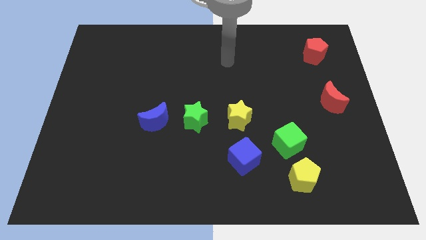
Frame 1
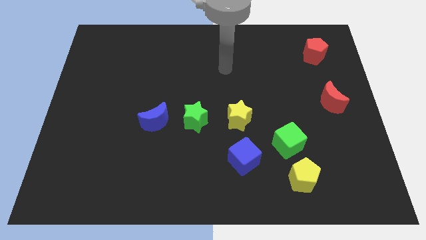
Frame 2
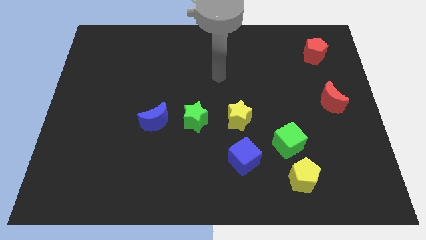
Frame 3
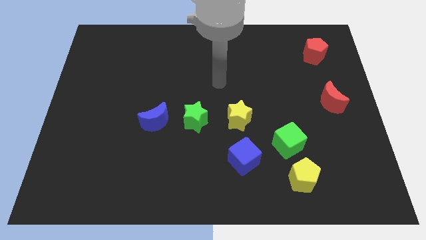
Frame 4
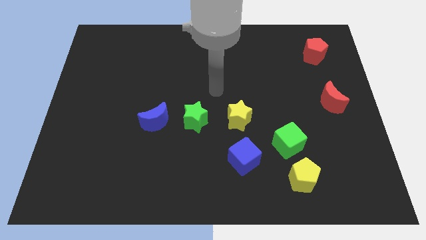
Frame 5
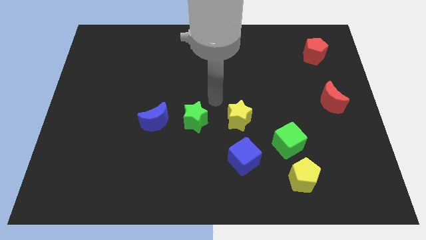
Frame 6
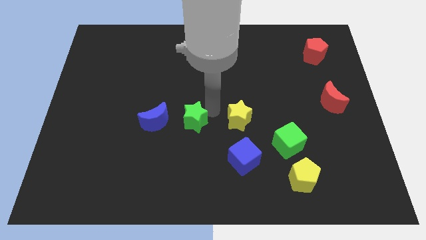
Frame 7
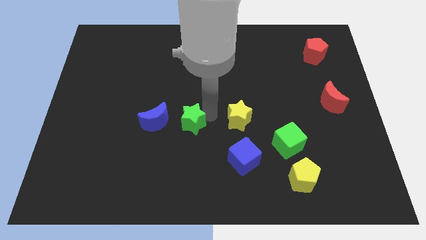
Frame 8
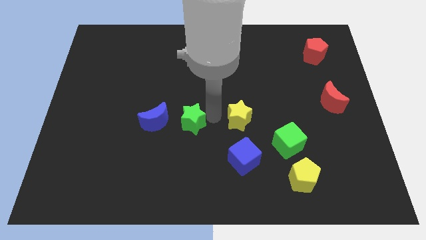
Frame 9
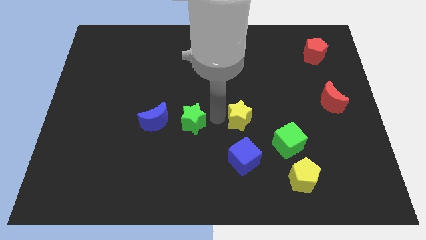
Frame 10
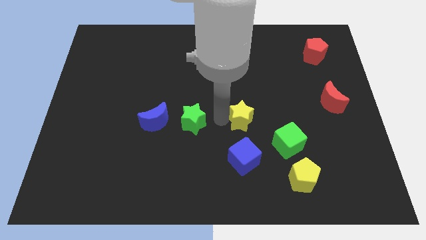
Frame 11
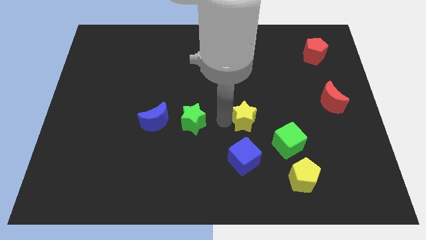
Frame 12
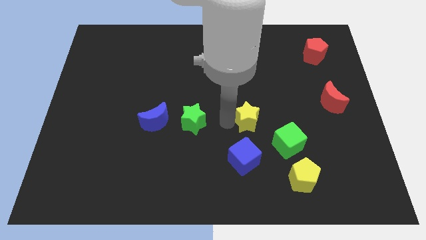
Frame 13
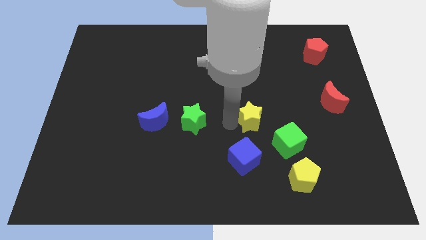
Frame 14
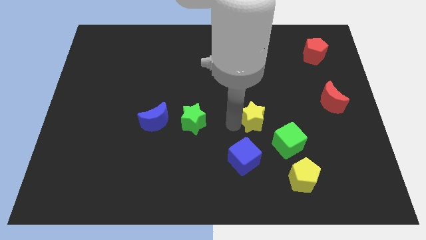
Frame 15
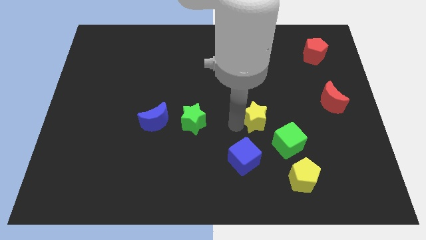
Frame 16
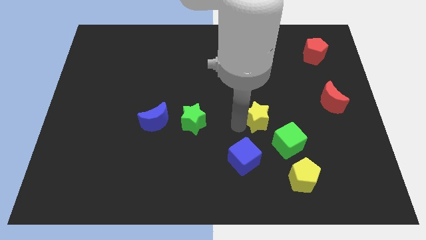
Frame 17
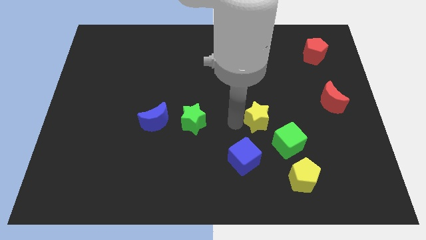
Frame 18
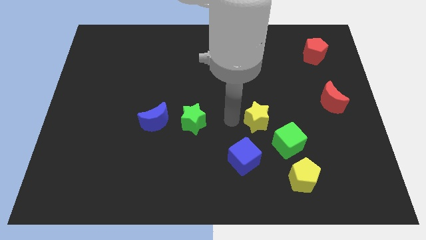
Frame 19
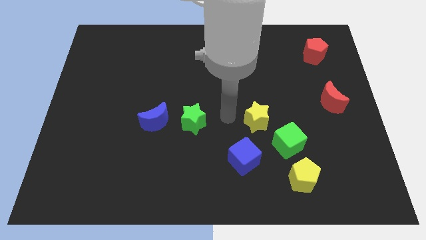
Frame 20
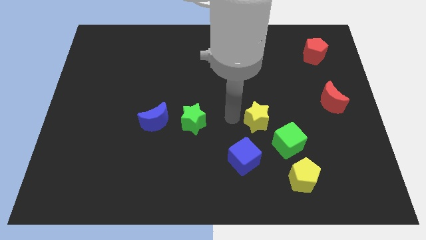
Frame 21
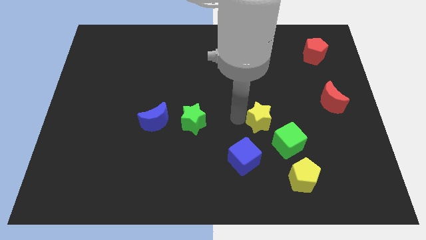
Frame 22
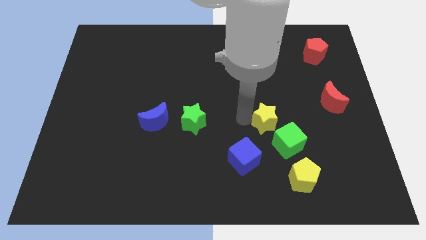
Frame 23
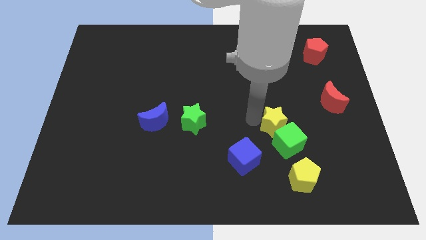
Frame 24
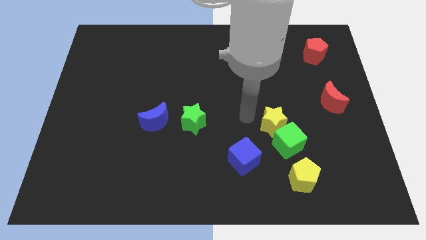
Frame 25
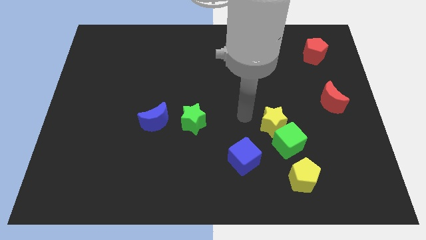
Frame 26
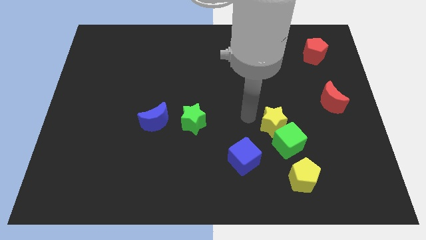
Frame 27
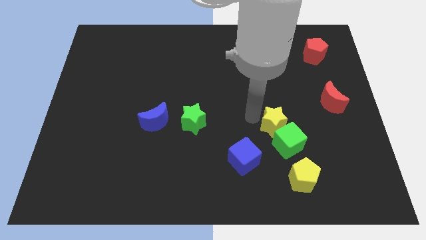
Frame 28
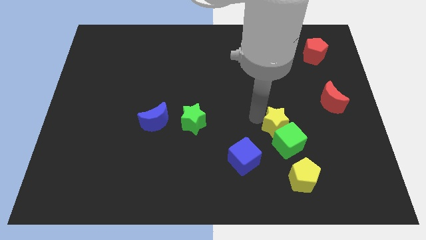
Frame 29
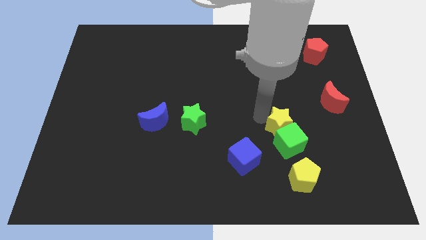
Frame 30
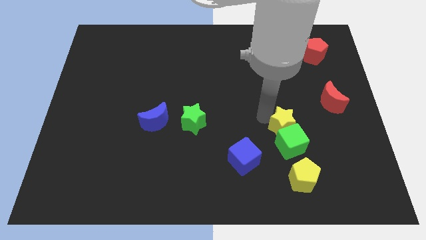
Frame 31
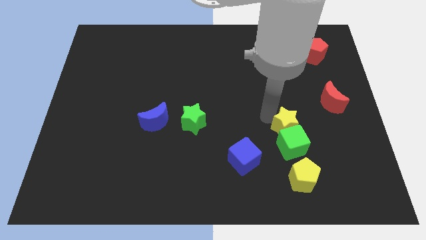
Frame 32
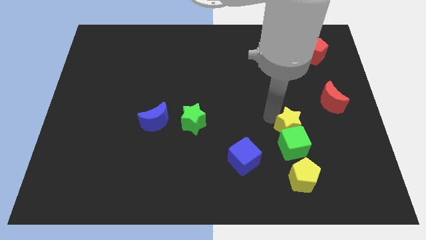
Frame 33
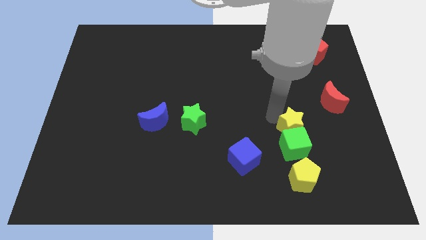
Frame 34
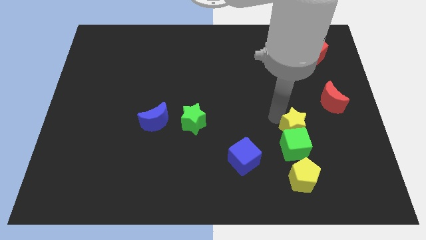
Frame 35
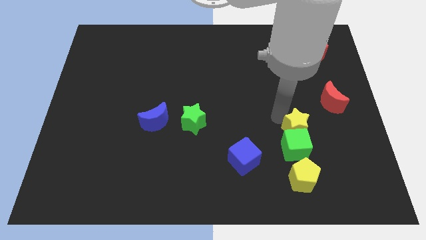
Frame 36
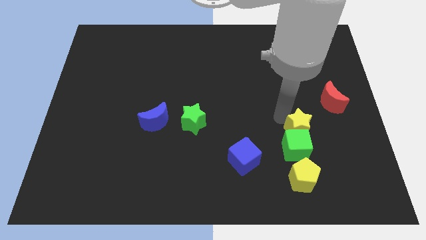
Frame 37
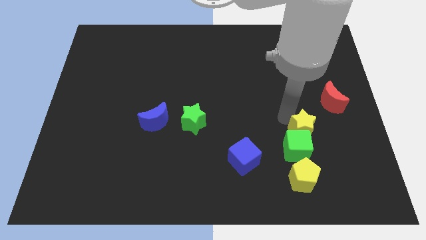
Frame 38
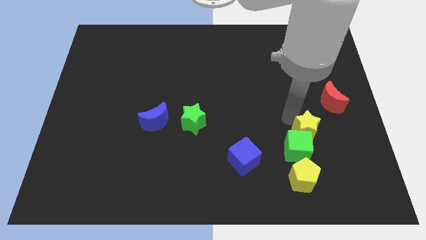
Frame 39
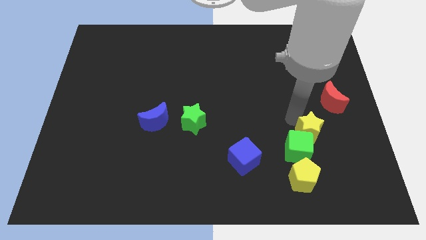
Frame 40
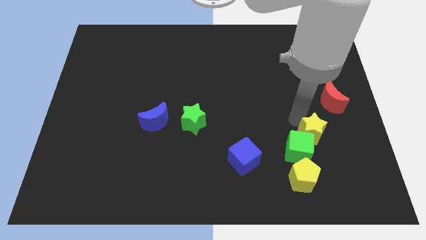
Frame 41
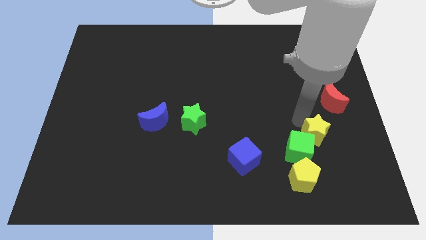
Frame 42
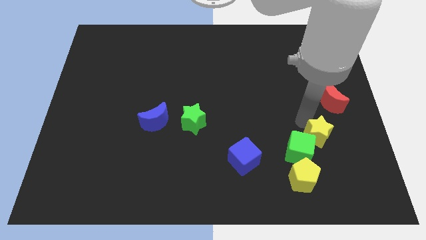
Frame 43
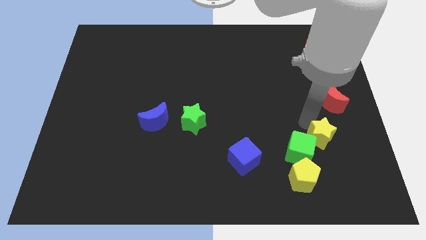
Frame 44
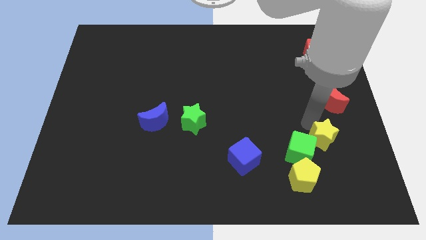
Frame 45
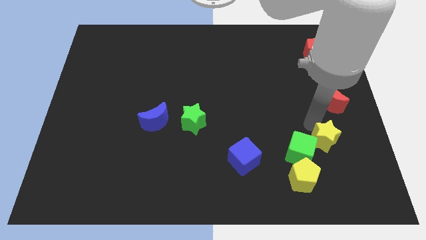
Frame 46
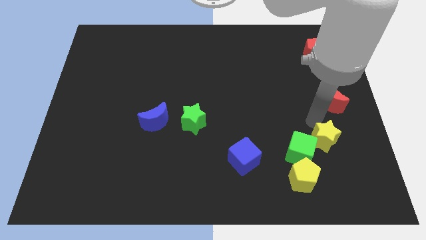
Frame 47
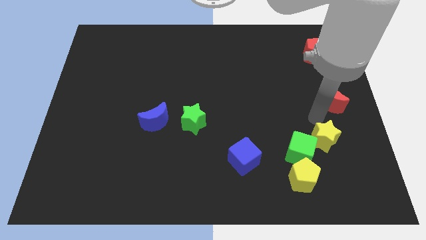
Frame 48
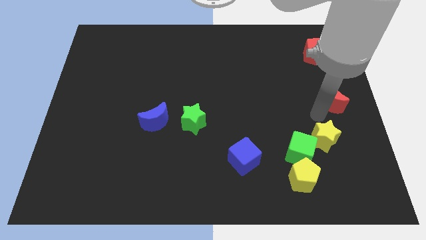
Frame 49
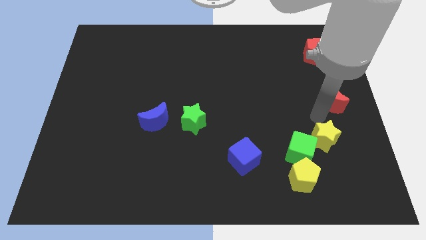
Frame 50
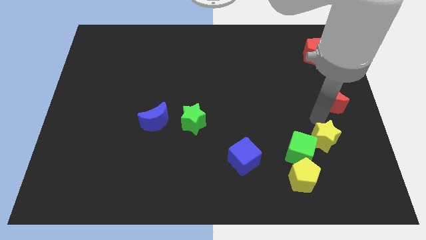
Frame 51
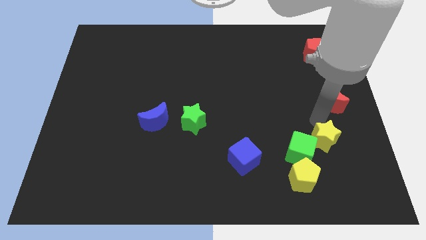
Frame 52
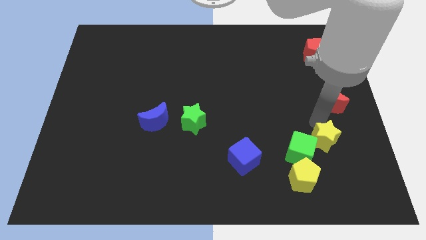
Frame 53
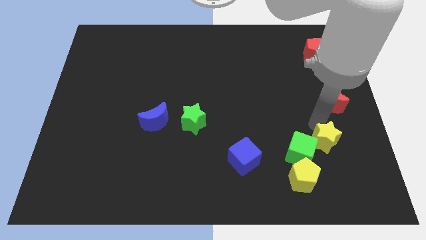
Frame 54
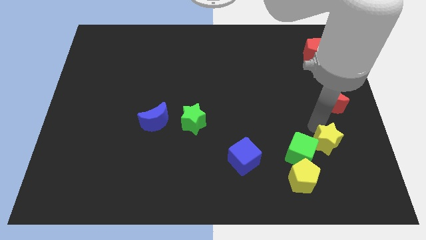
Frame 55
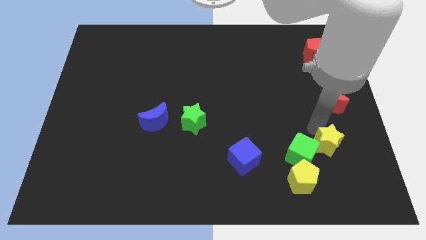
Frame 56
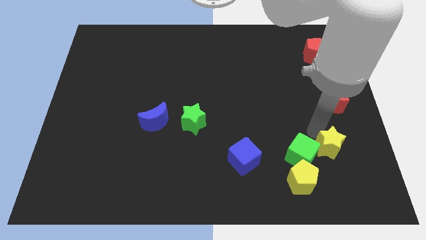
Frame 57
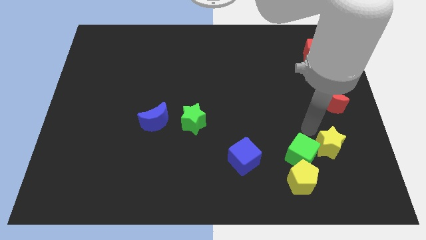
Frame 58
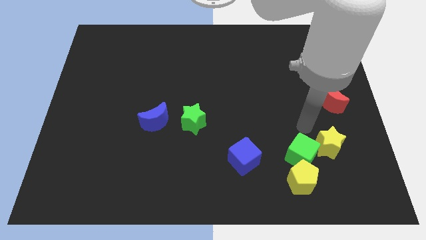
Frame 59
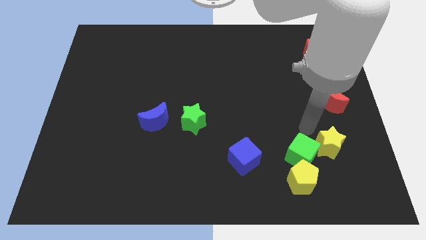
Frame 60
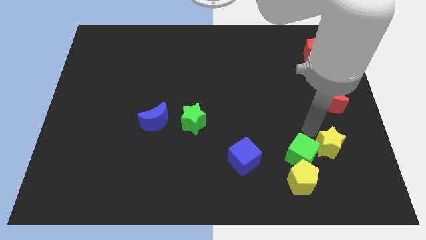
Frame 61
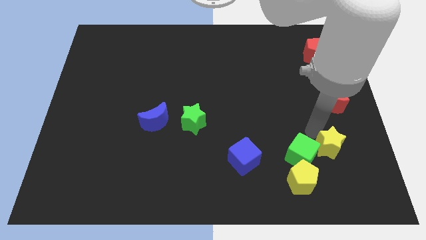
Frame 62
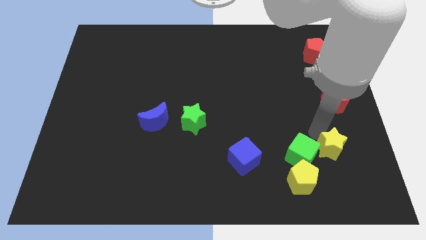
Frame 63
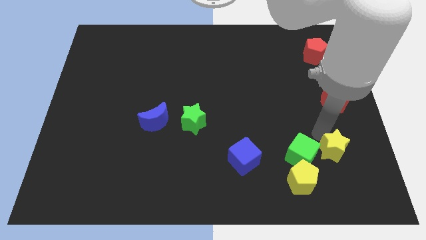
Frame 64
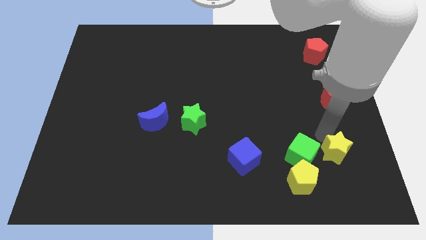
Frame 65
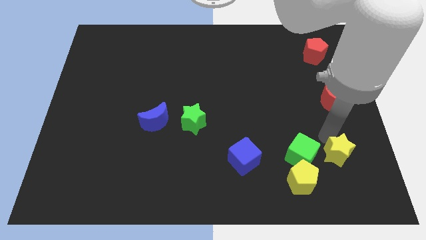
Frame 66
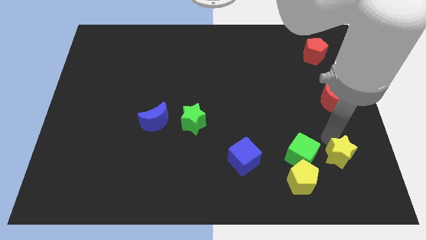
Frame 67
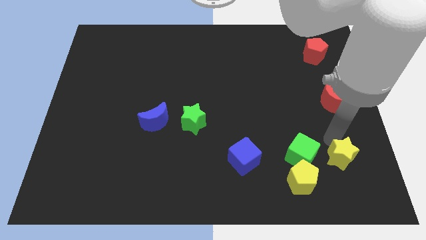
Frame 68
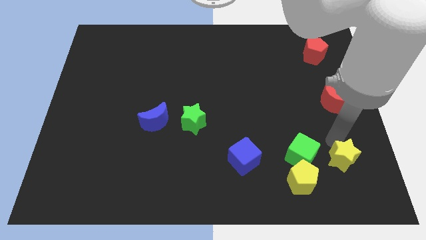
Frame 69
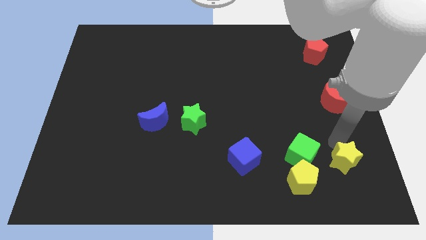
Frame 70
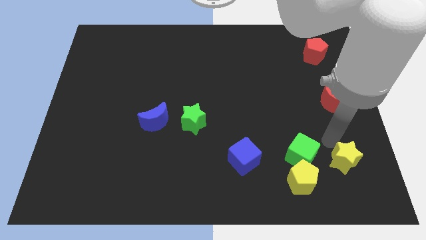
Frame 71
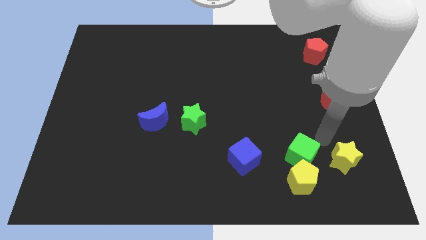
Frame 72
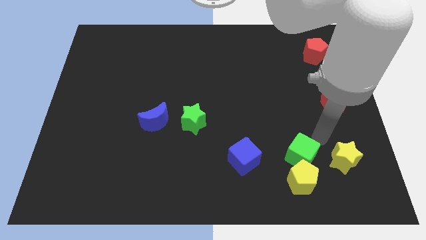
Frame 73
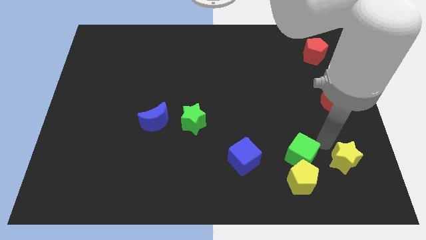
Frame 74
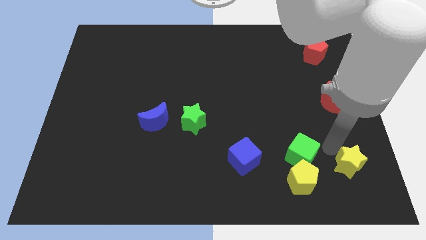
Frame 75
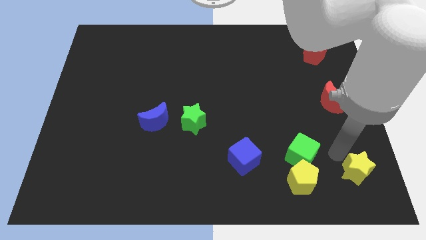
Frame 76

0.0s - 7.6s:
push the yellow star to the lower right corner
